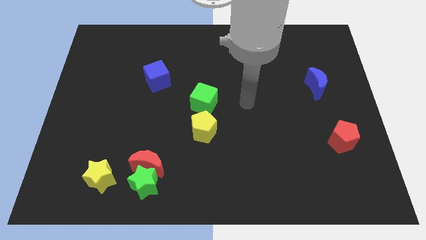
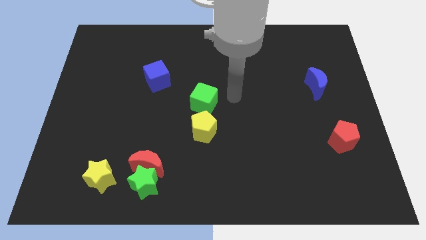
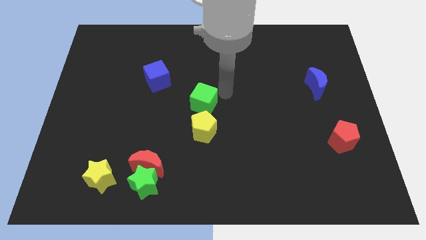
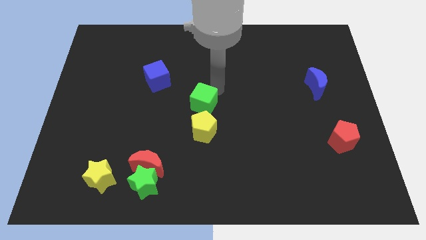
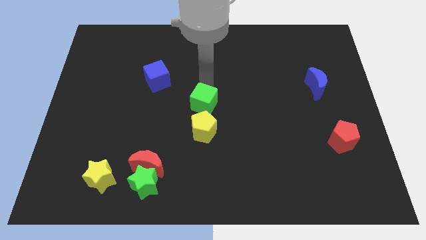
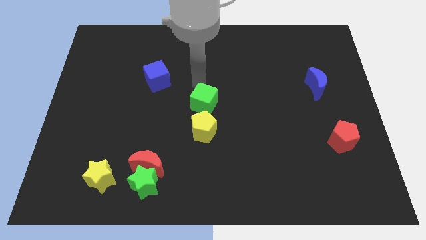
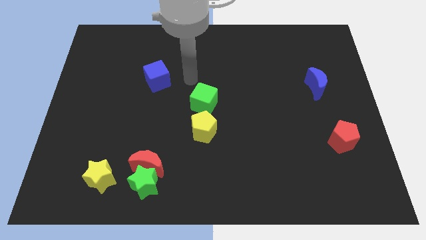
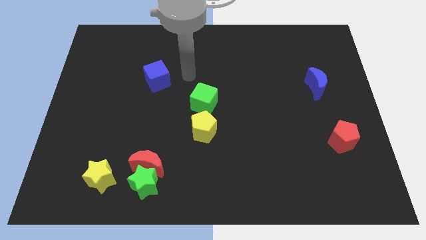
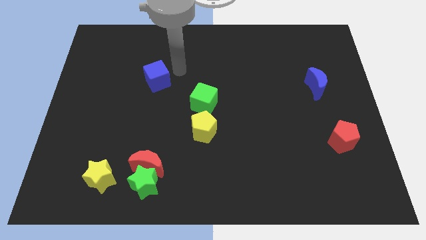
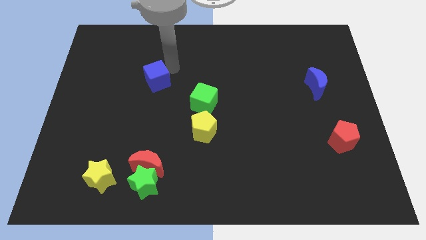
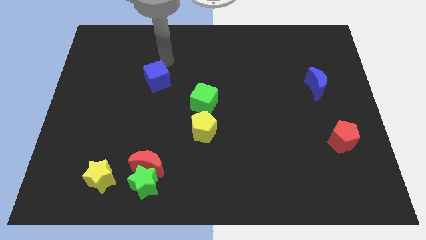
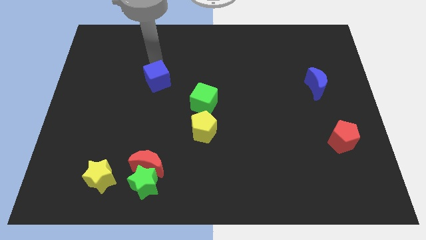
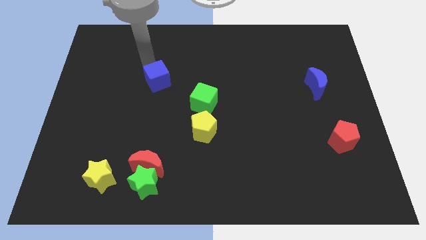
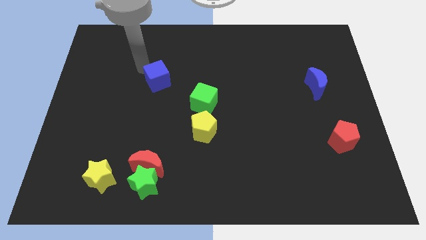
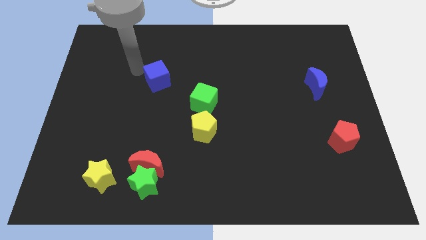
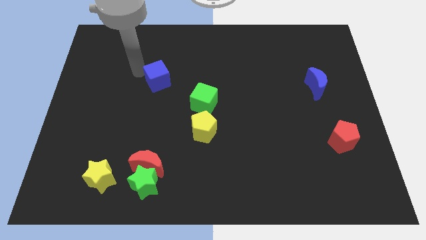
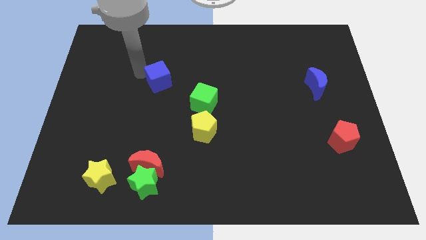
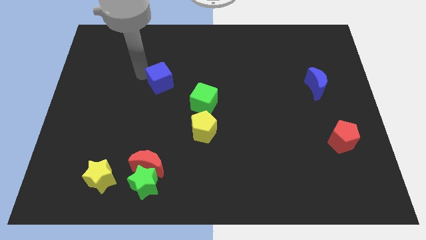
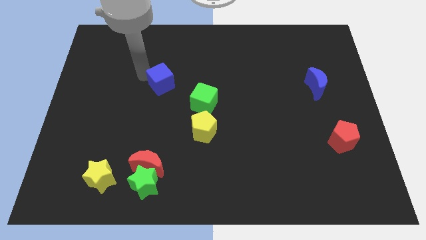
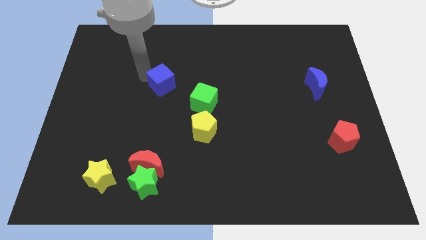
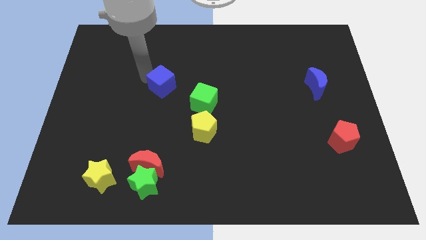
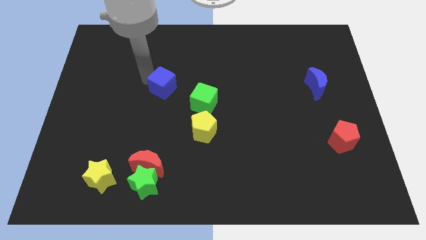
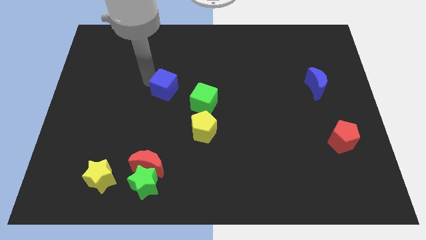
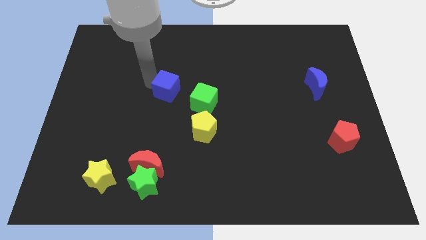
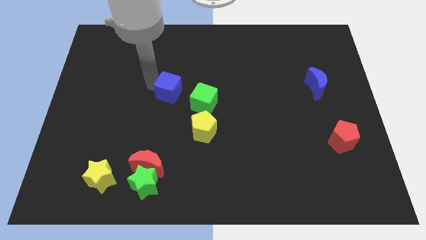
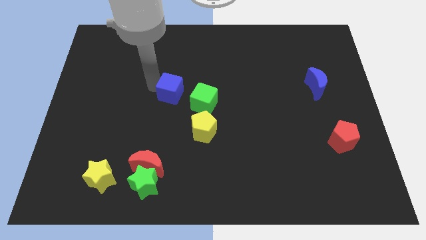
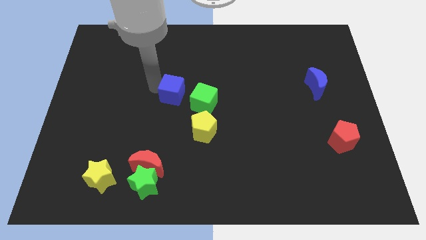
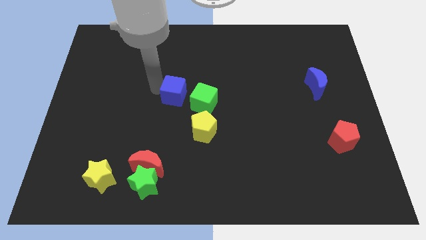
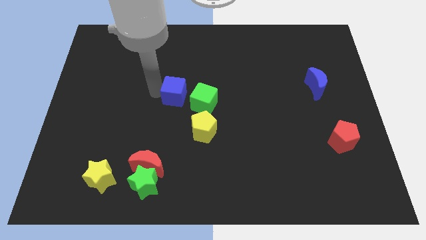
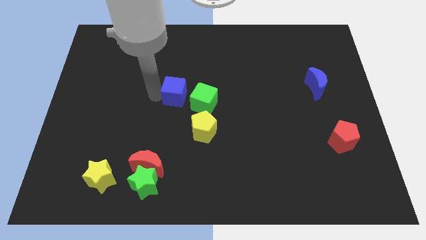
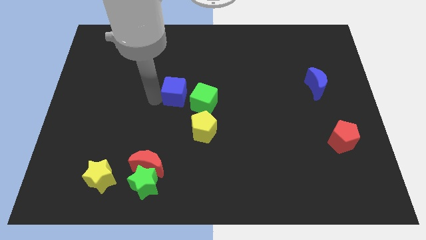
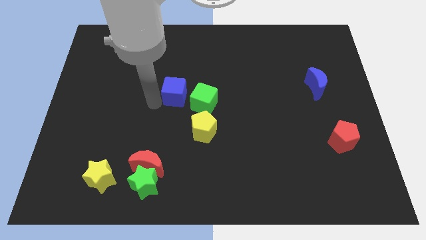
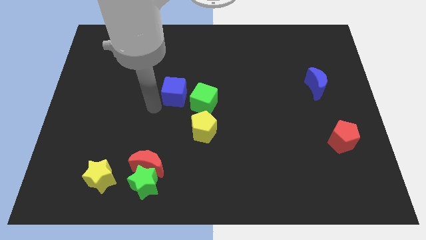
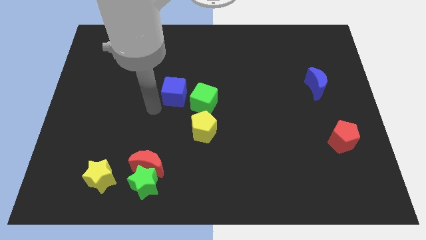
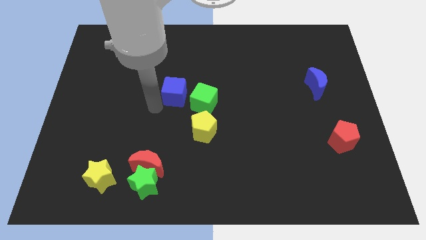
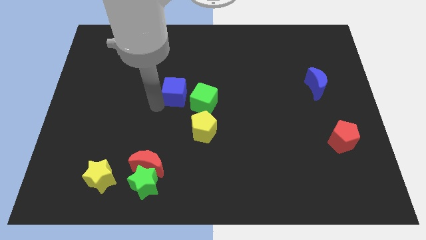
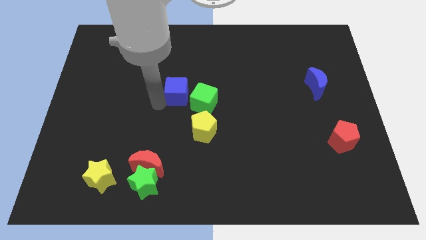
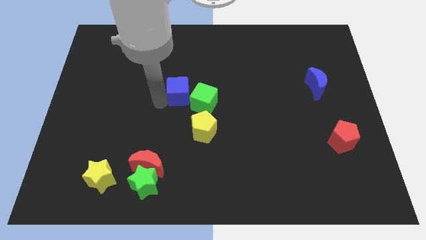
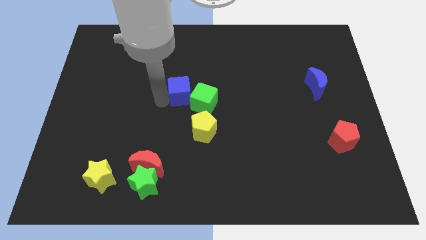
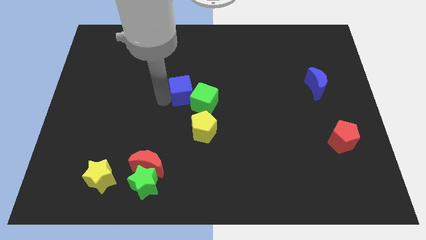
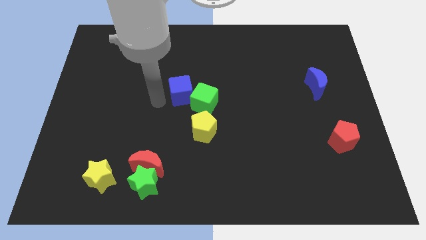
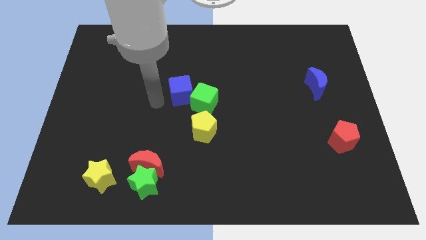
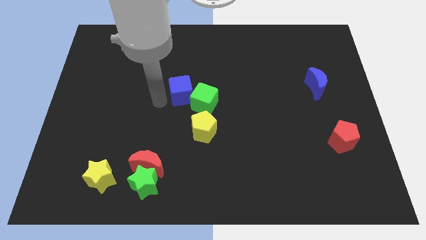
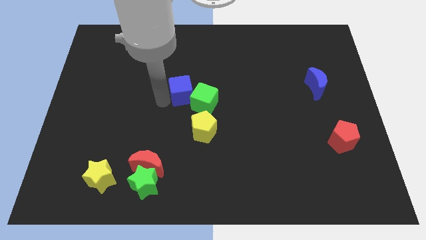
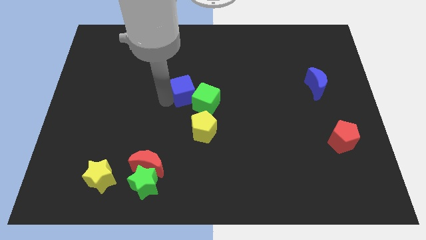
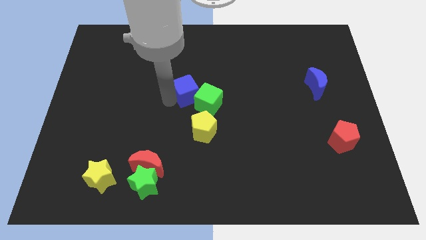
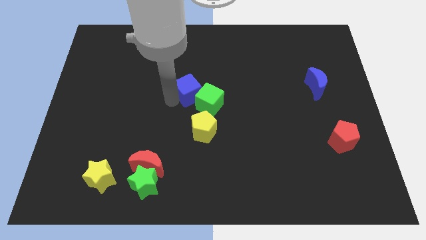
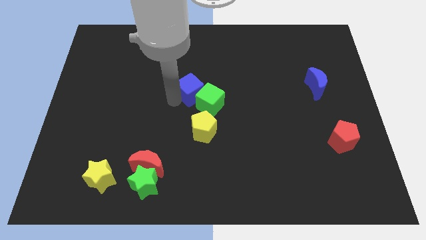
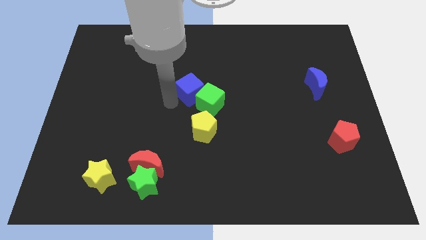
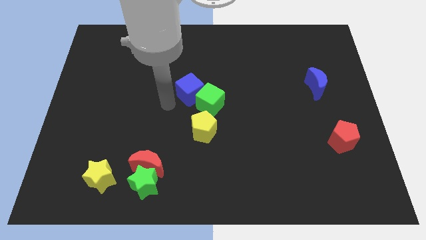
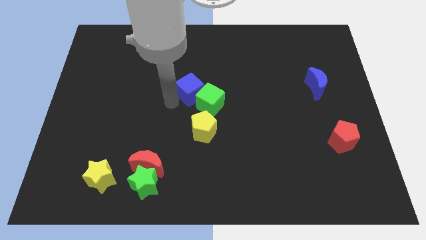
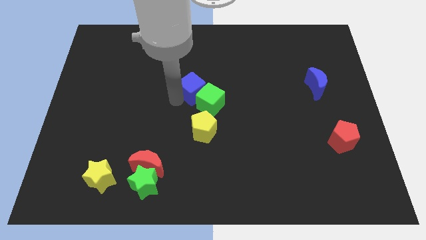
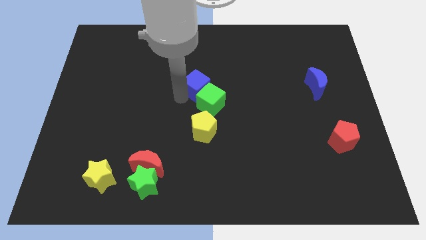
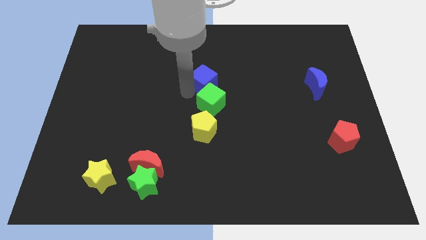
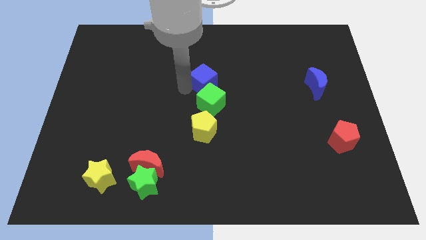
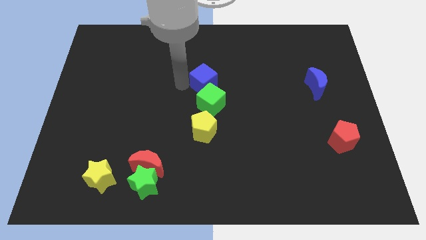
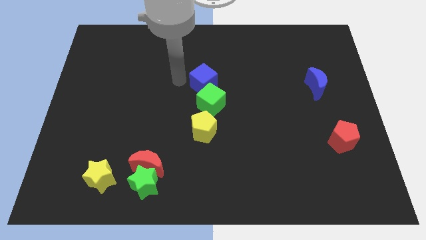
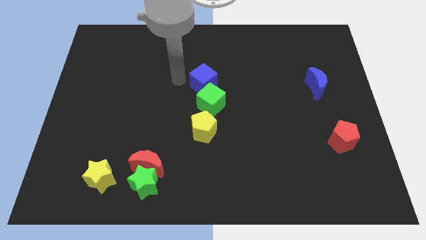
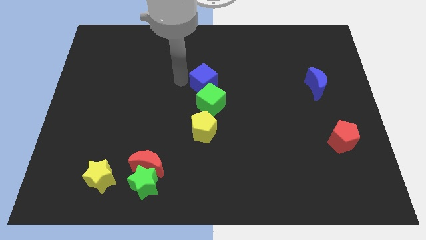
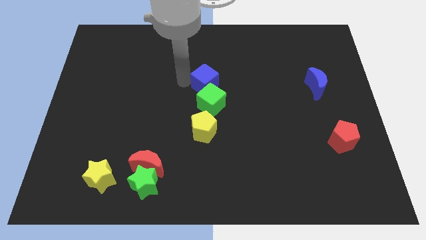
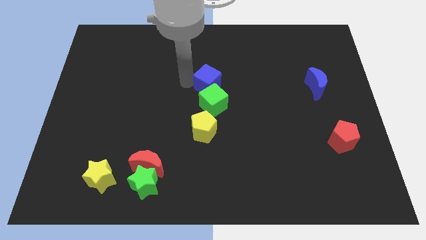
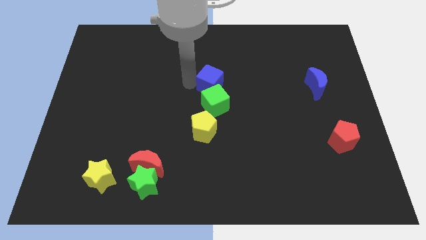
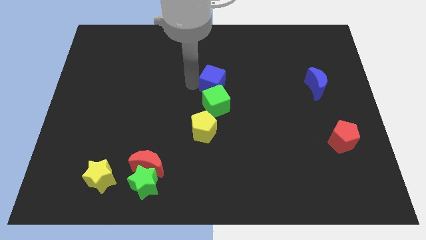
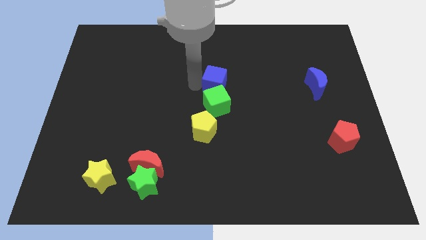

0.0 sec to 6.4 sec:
push the blue cube to the top right side of the green cube

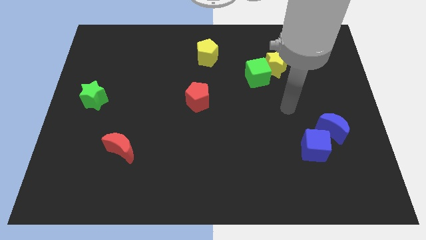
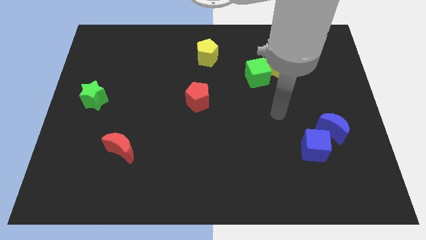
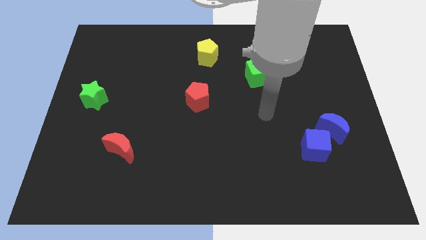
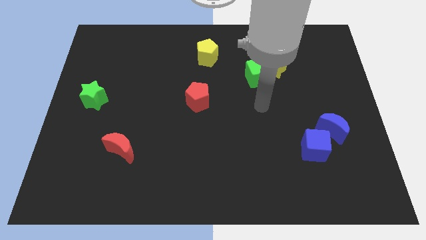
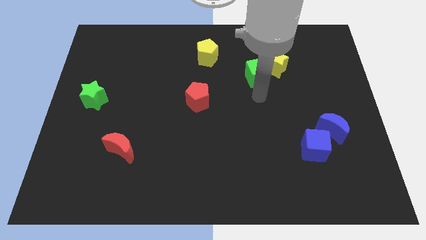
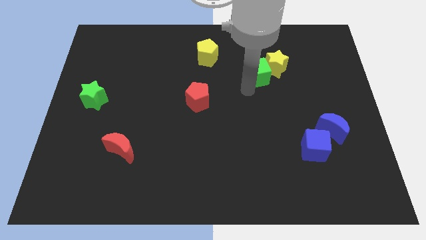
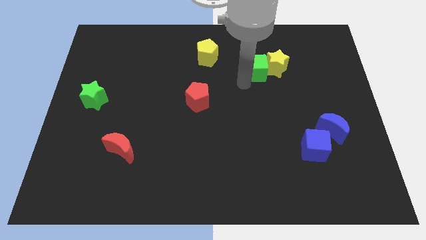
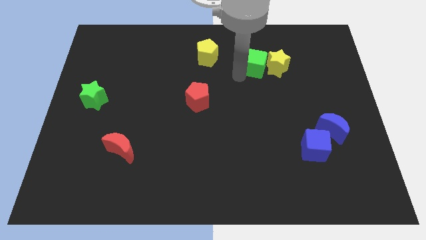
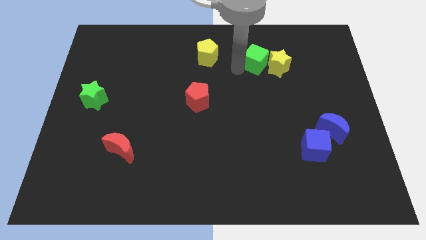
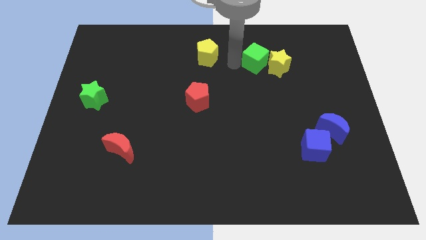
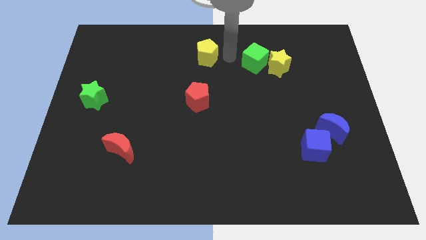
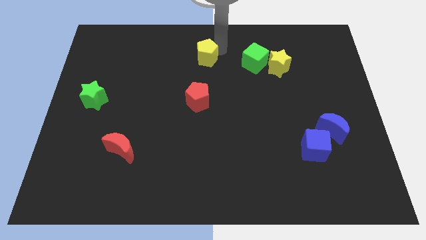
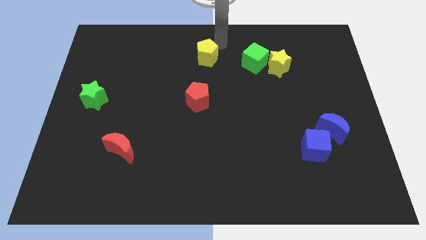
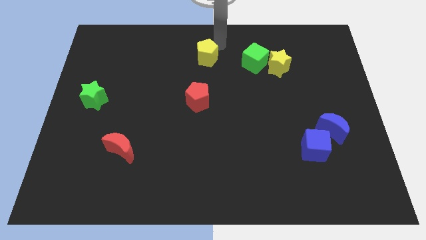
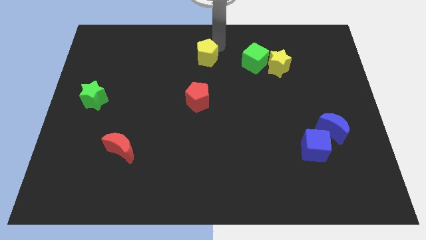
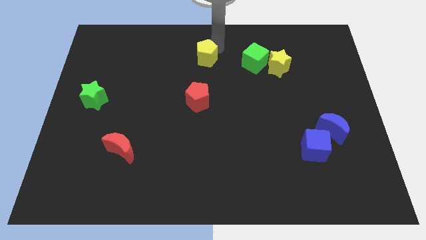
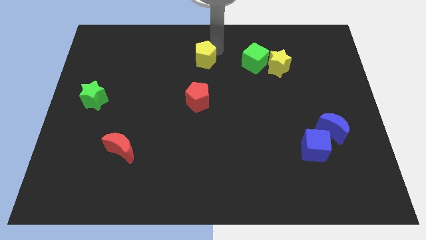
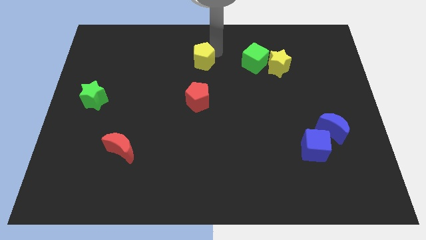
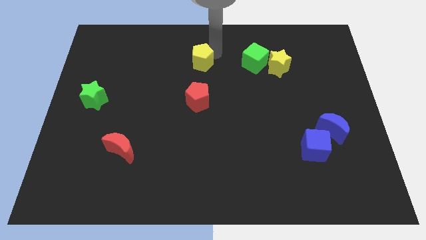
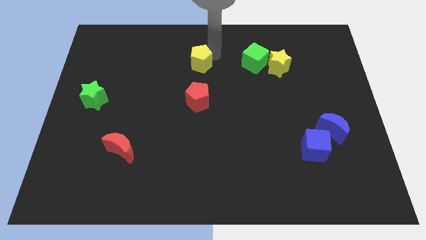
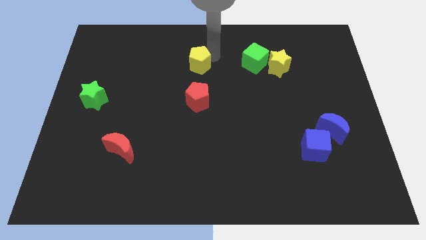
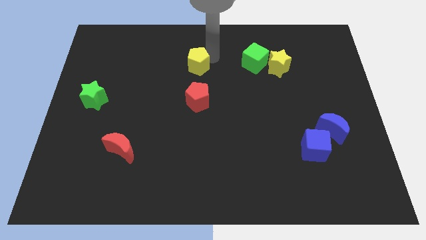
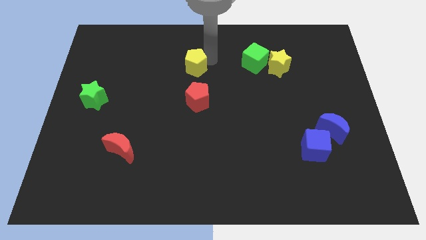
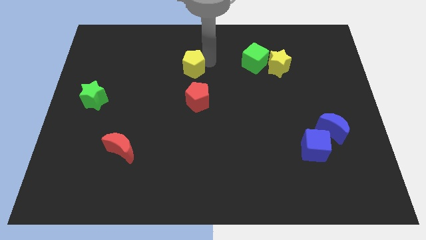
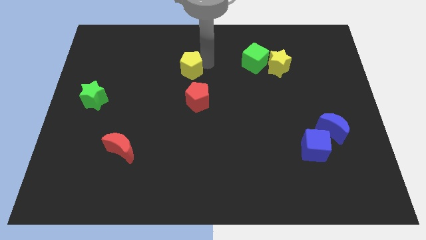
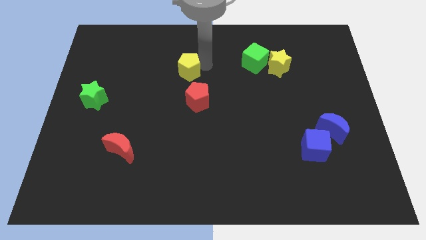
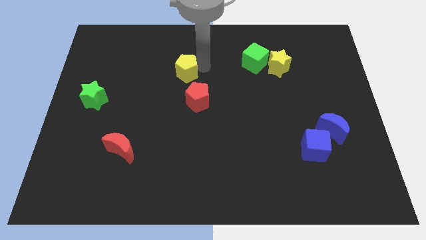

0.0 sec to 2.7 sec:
push the yellow pentagon diagonally up and to the left of the red pentagon
